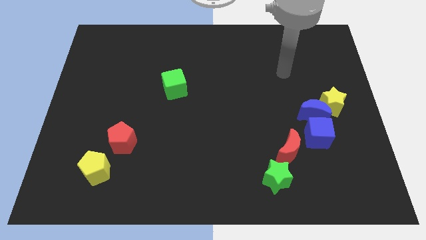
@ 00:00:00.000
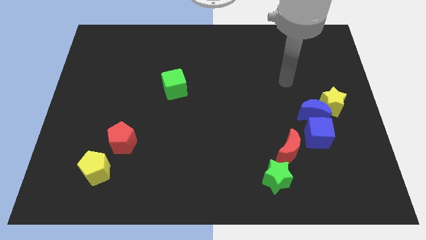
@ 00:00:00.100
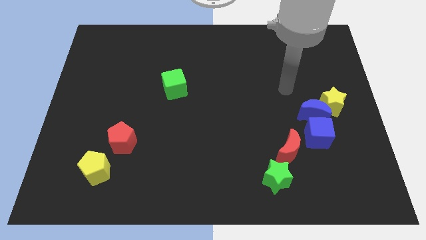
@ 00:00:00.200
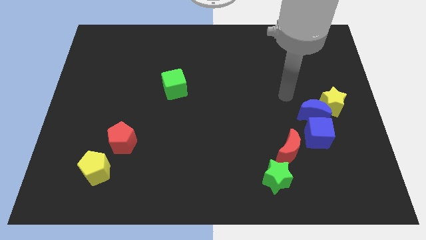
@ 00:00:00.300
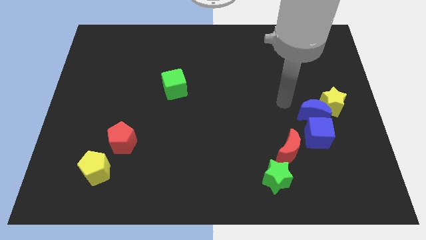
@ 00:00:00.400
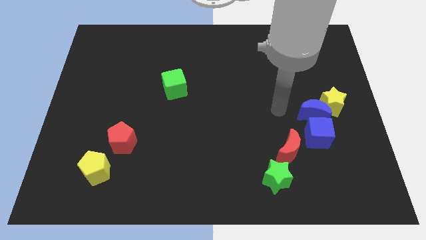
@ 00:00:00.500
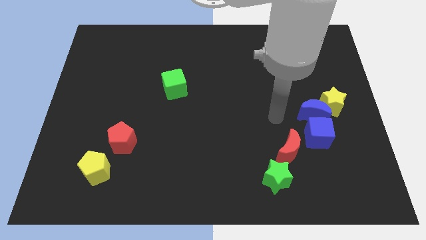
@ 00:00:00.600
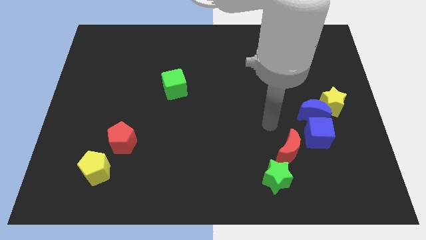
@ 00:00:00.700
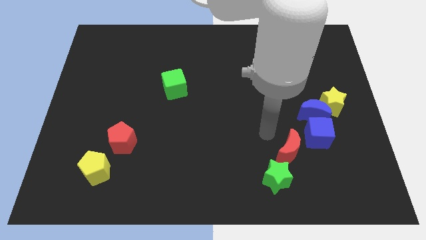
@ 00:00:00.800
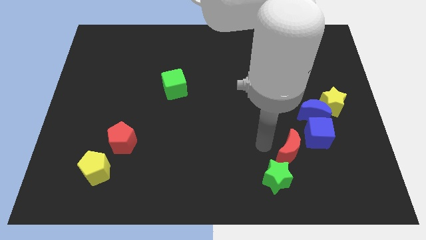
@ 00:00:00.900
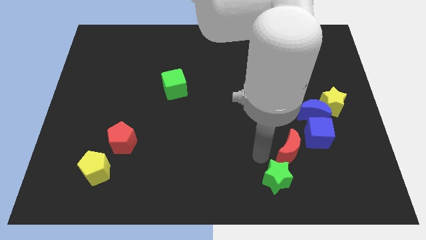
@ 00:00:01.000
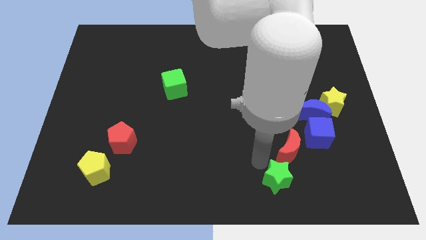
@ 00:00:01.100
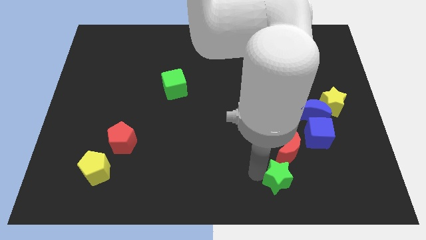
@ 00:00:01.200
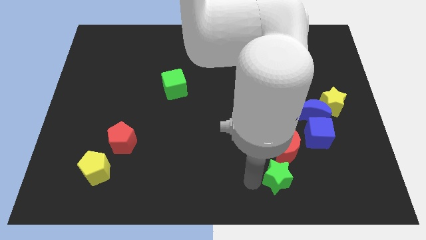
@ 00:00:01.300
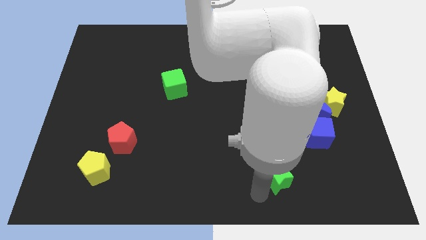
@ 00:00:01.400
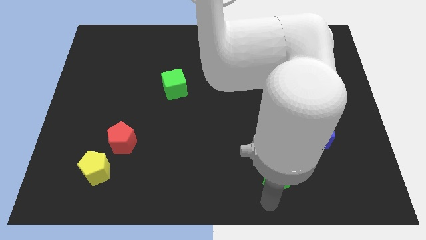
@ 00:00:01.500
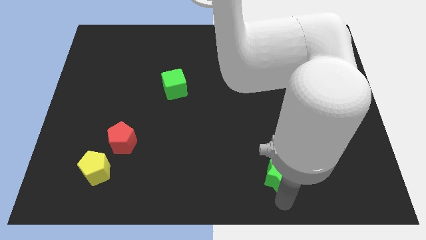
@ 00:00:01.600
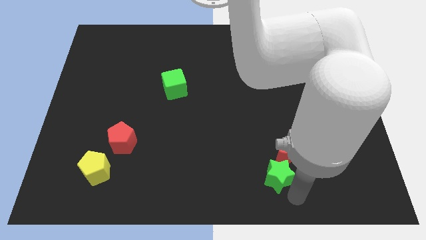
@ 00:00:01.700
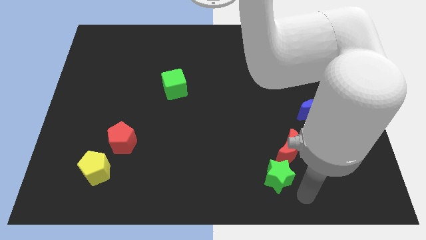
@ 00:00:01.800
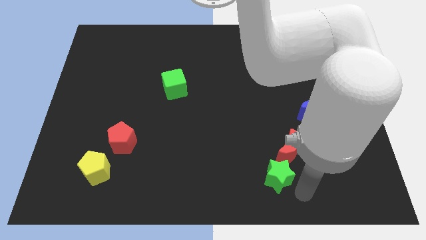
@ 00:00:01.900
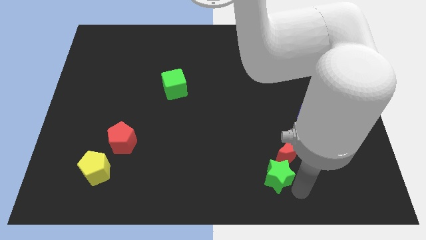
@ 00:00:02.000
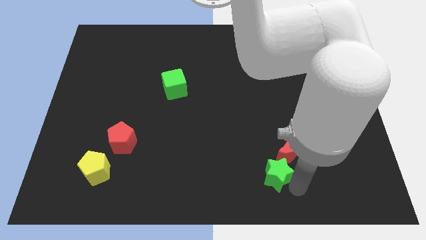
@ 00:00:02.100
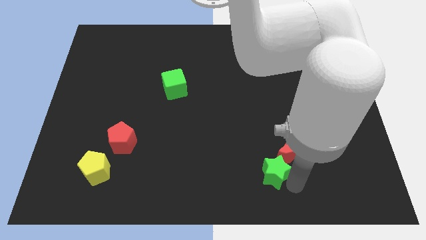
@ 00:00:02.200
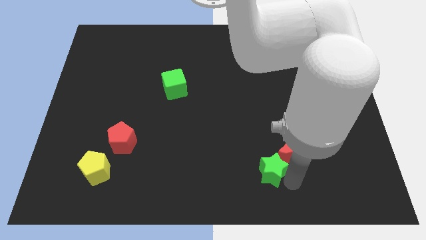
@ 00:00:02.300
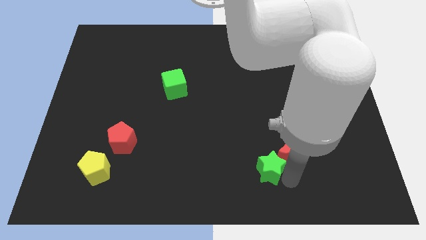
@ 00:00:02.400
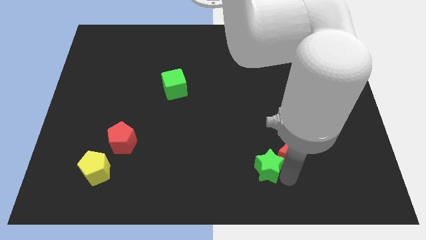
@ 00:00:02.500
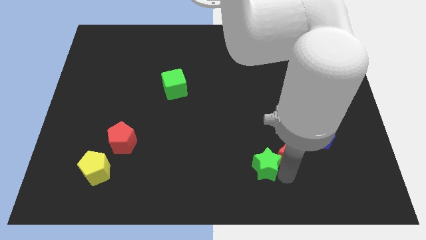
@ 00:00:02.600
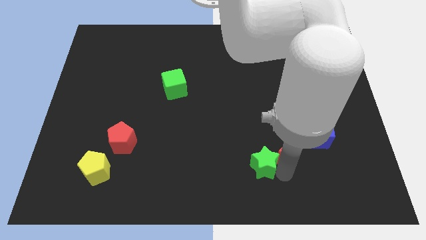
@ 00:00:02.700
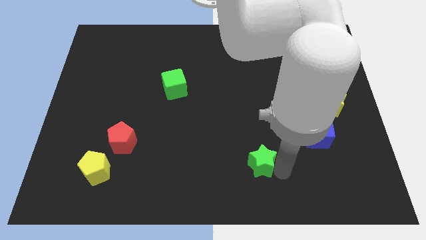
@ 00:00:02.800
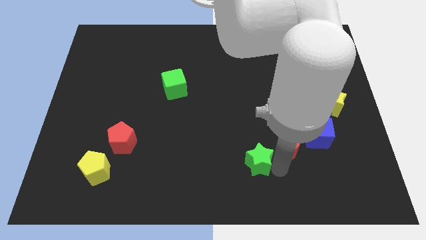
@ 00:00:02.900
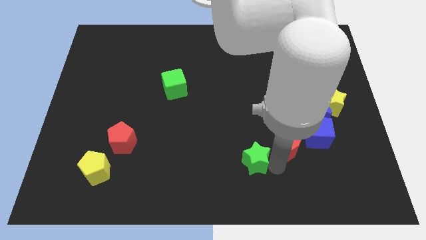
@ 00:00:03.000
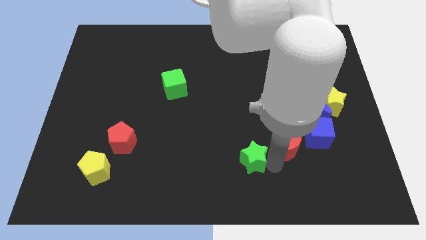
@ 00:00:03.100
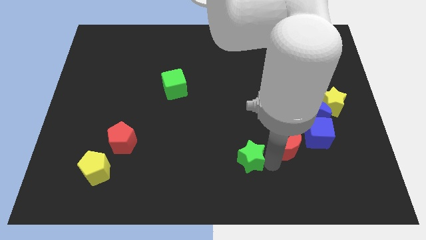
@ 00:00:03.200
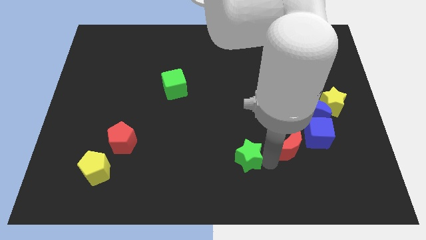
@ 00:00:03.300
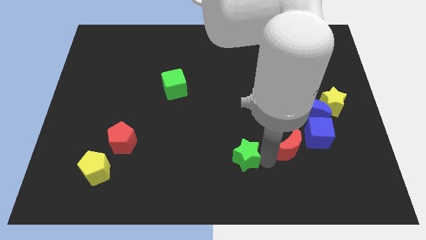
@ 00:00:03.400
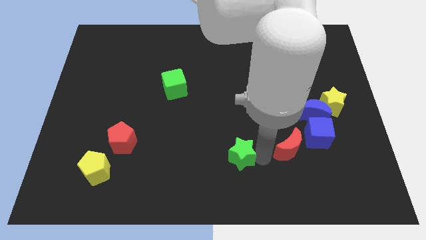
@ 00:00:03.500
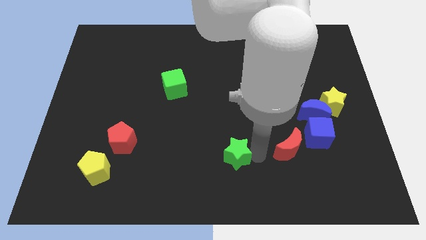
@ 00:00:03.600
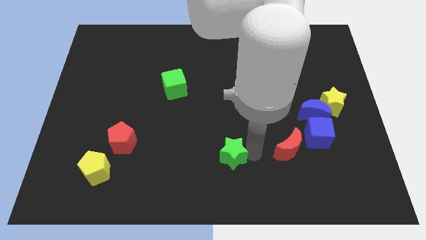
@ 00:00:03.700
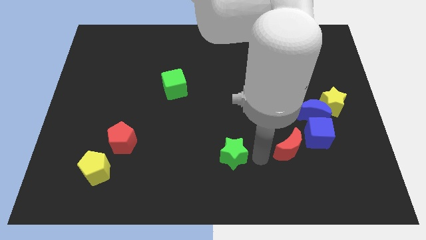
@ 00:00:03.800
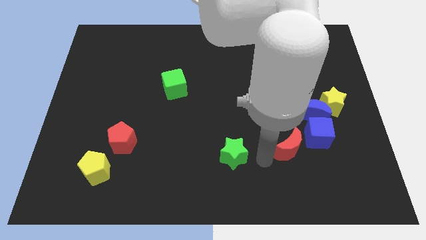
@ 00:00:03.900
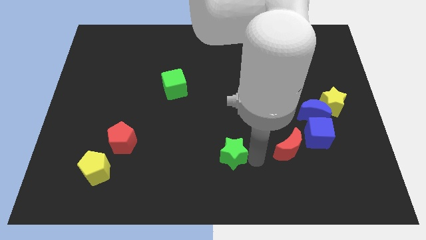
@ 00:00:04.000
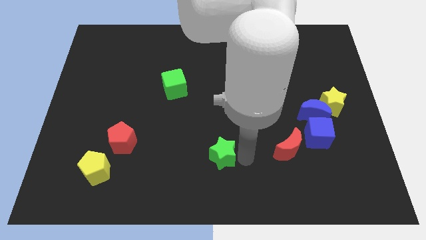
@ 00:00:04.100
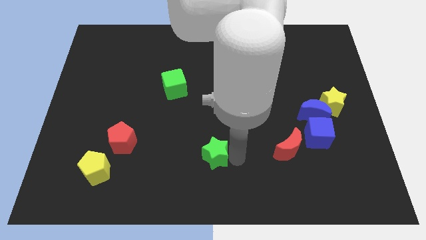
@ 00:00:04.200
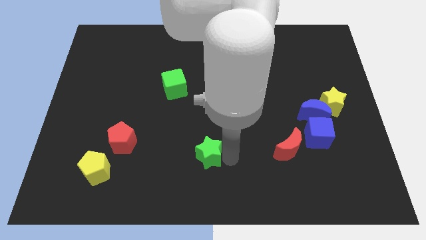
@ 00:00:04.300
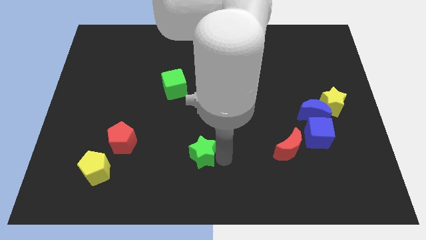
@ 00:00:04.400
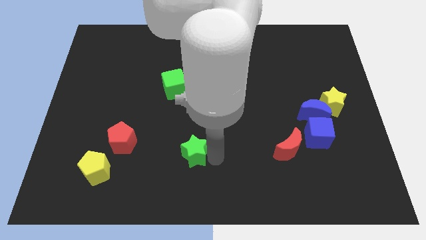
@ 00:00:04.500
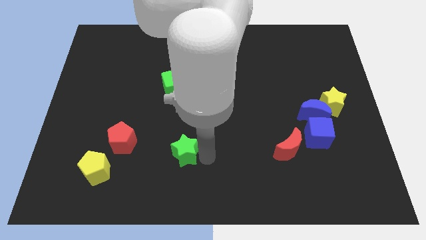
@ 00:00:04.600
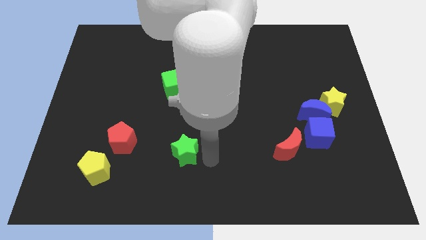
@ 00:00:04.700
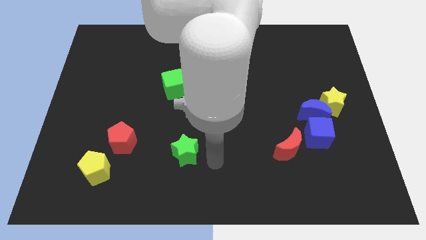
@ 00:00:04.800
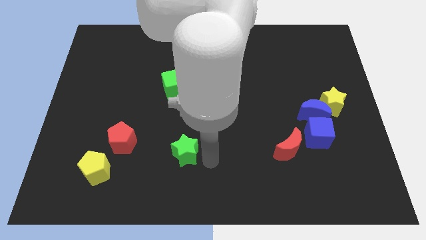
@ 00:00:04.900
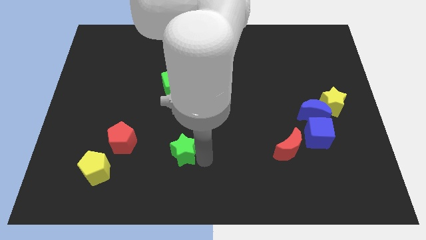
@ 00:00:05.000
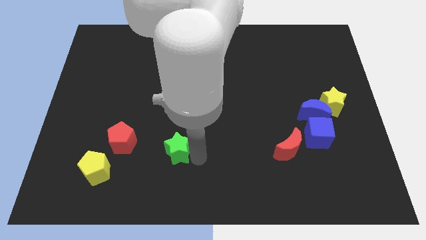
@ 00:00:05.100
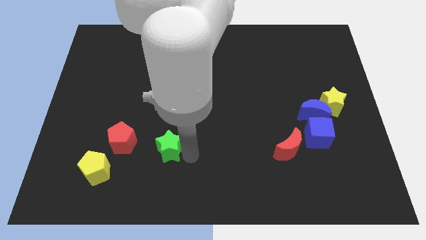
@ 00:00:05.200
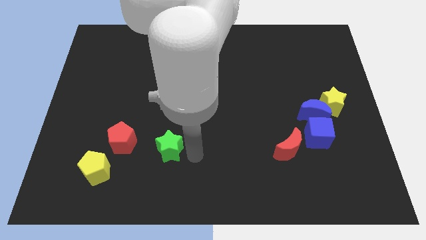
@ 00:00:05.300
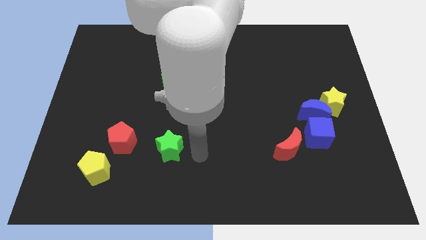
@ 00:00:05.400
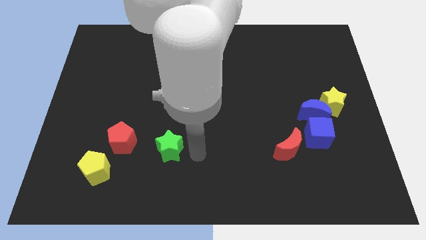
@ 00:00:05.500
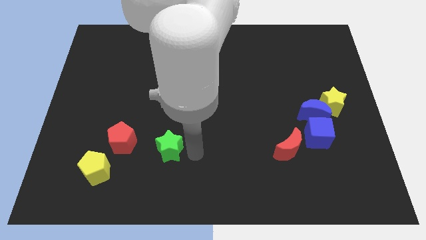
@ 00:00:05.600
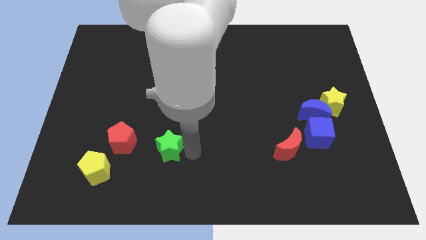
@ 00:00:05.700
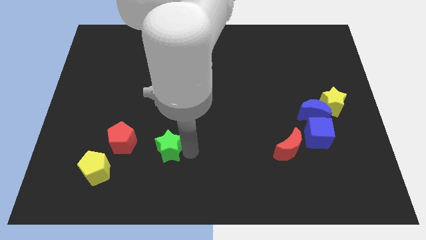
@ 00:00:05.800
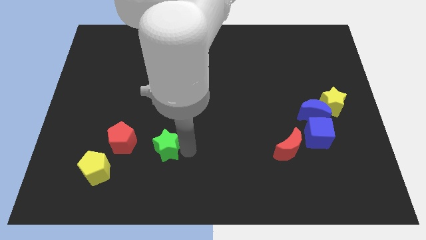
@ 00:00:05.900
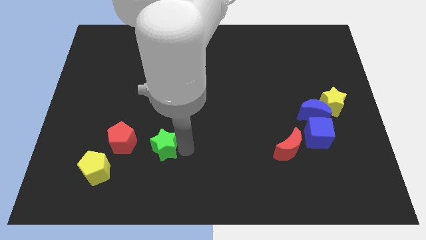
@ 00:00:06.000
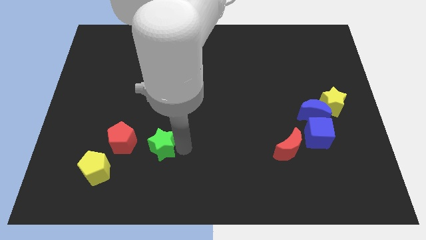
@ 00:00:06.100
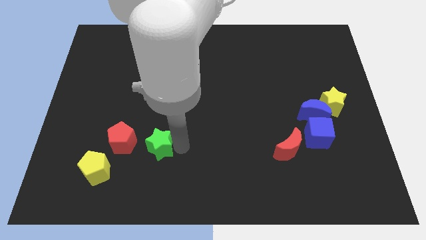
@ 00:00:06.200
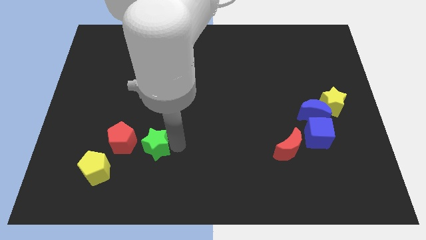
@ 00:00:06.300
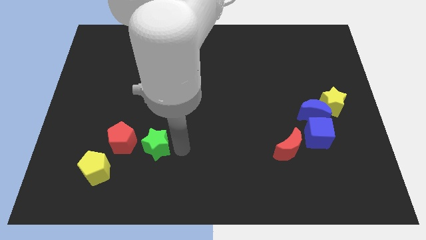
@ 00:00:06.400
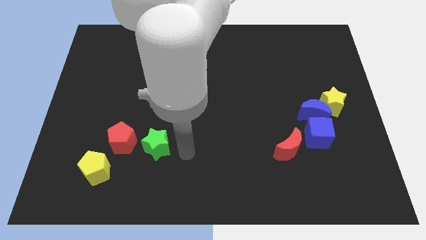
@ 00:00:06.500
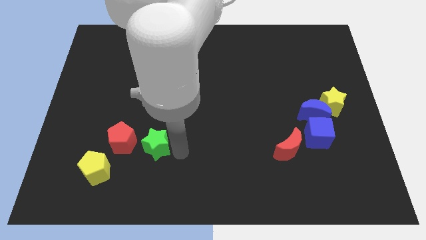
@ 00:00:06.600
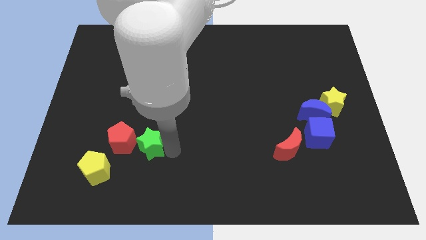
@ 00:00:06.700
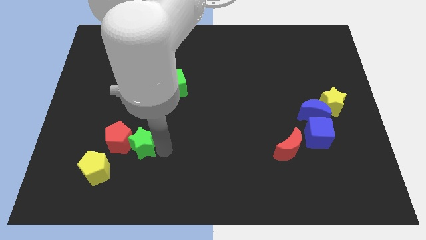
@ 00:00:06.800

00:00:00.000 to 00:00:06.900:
slide the green star close to the red pentagon
